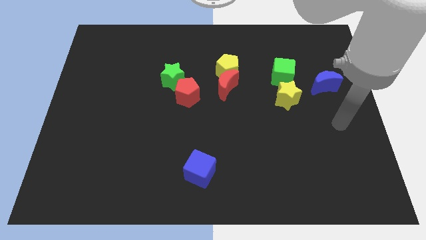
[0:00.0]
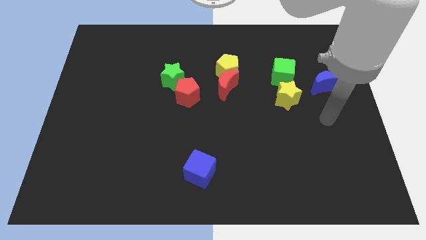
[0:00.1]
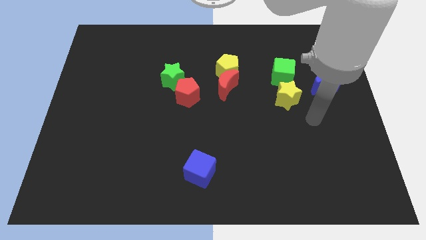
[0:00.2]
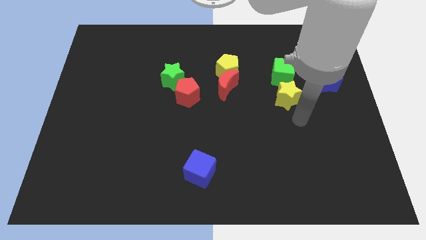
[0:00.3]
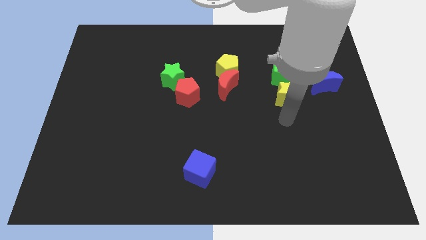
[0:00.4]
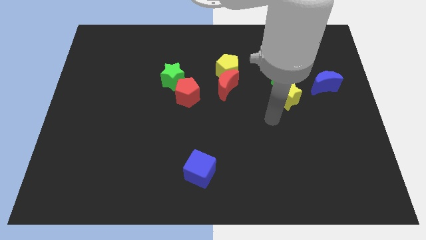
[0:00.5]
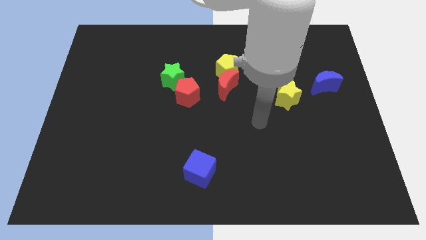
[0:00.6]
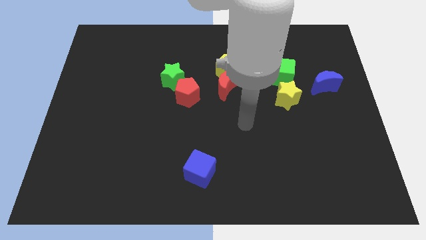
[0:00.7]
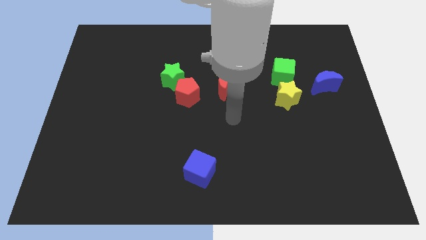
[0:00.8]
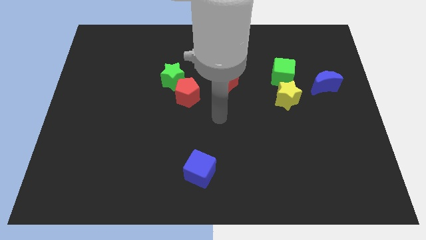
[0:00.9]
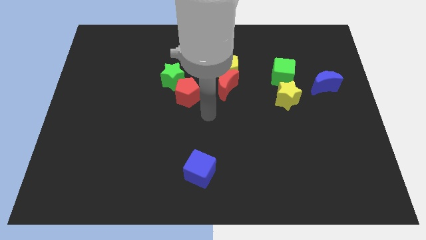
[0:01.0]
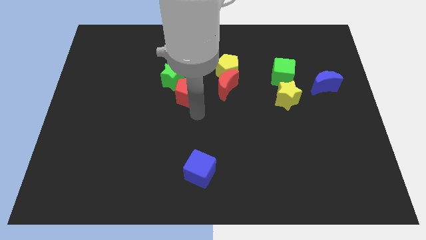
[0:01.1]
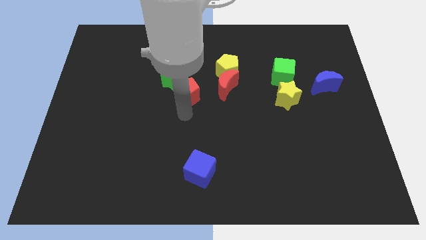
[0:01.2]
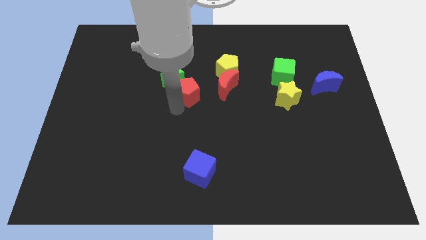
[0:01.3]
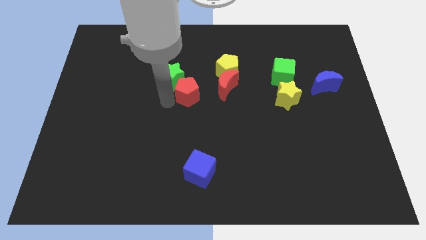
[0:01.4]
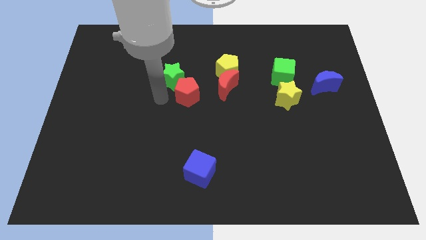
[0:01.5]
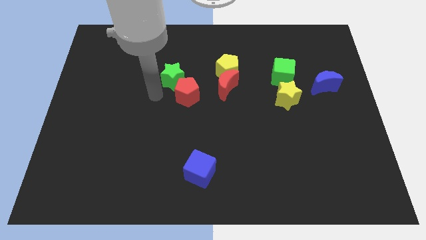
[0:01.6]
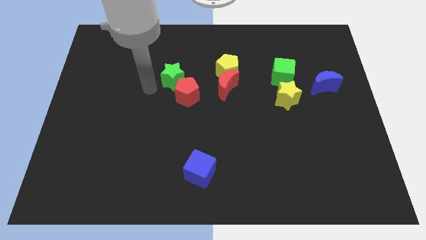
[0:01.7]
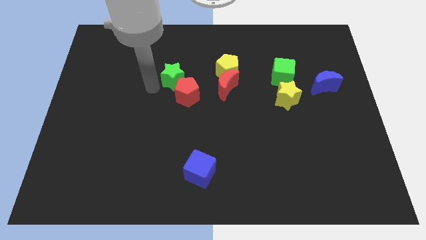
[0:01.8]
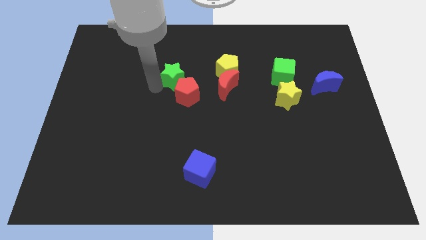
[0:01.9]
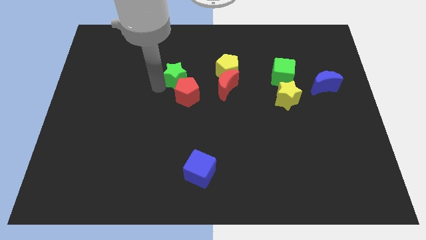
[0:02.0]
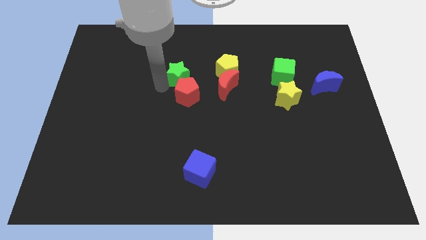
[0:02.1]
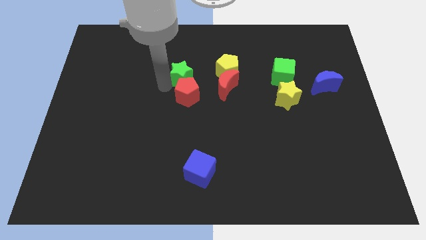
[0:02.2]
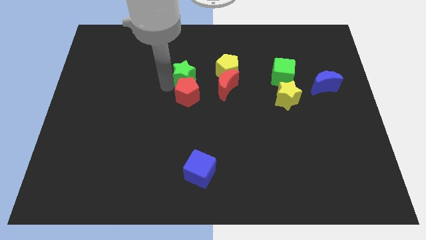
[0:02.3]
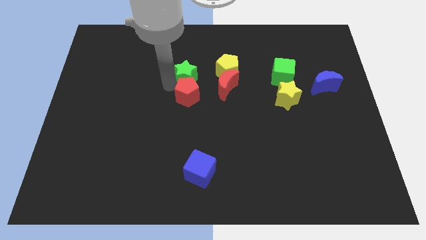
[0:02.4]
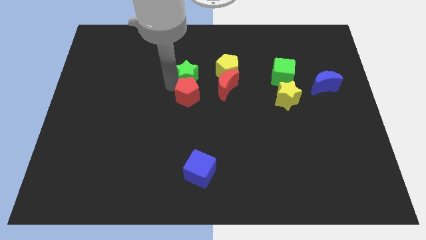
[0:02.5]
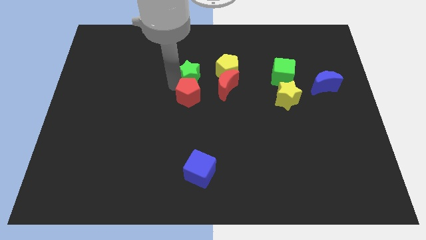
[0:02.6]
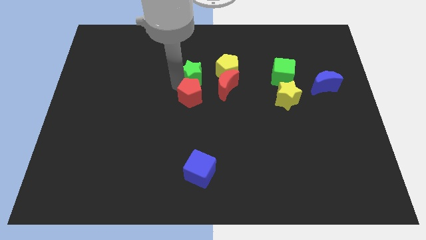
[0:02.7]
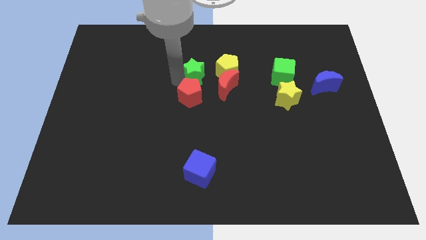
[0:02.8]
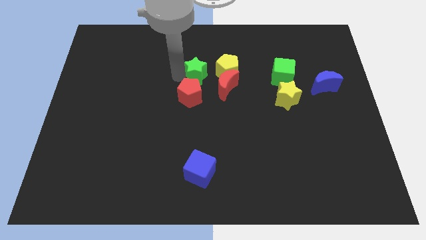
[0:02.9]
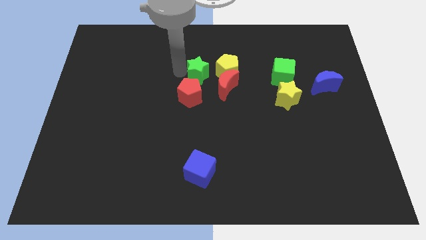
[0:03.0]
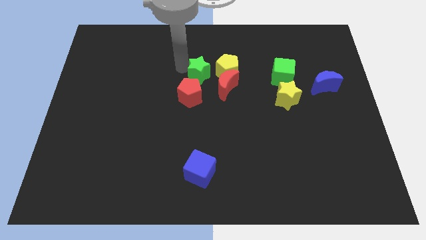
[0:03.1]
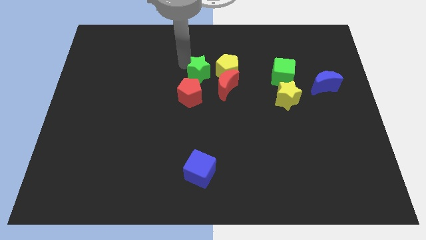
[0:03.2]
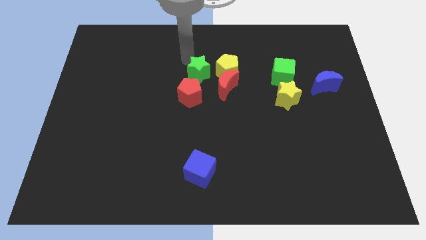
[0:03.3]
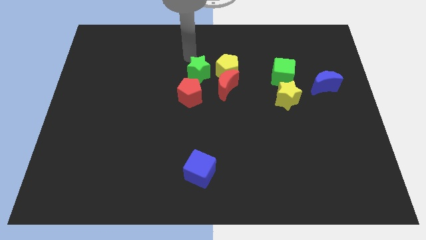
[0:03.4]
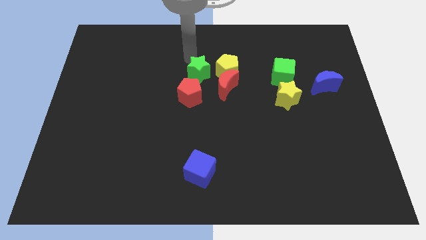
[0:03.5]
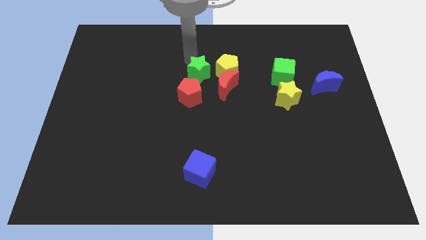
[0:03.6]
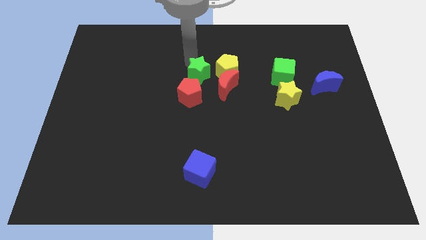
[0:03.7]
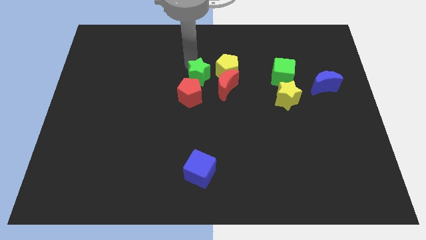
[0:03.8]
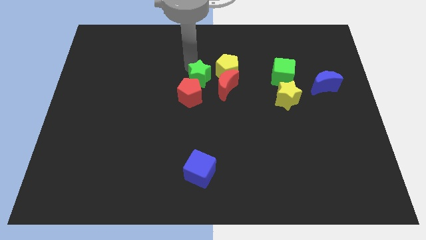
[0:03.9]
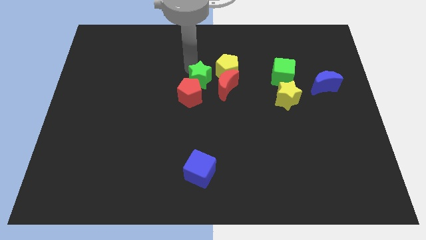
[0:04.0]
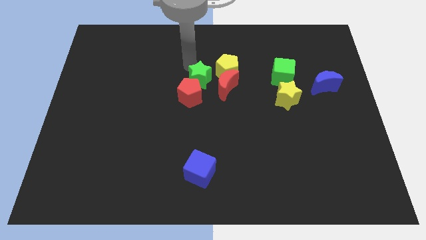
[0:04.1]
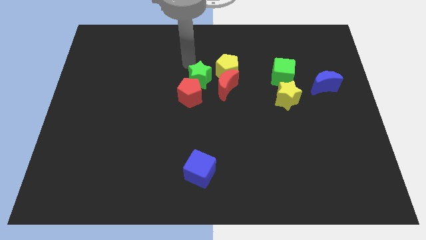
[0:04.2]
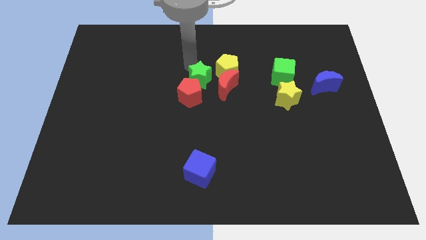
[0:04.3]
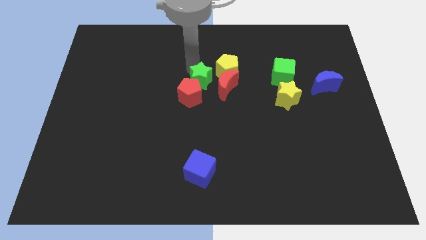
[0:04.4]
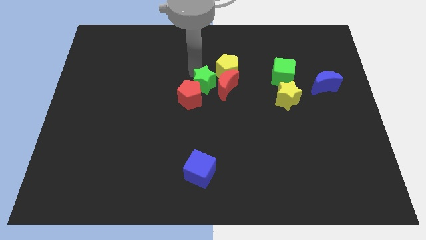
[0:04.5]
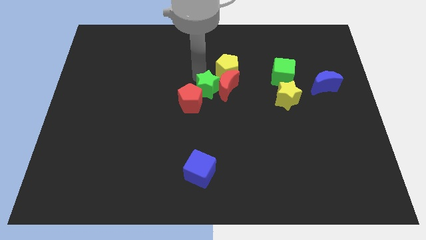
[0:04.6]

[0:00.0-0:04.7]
slide the green star down and right a little bit

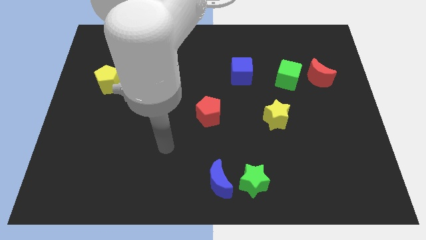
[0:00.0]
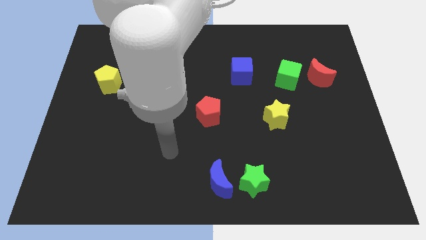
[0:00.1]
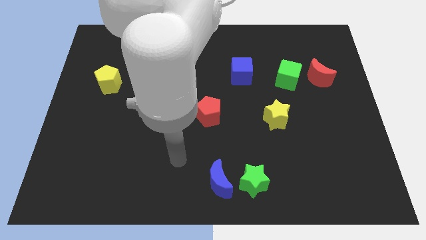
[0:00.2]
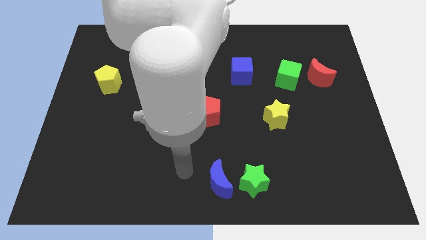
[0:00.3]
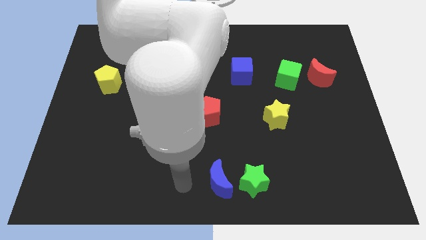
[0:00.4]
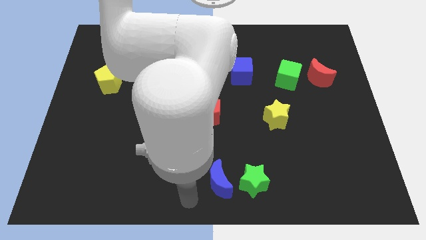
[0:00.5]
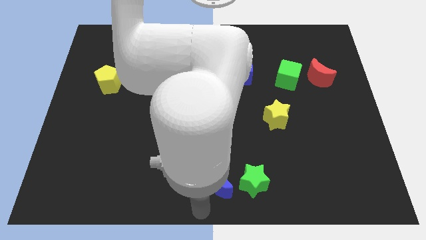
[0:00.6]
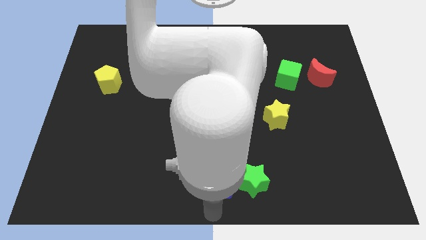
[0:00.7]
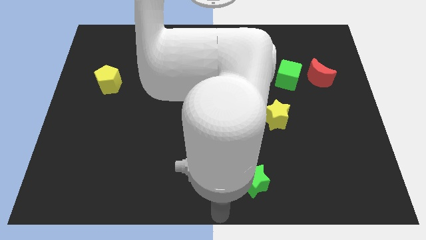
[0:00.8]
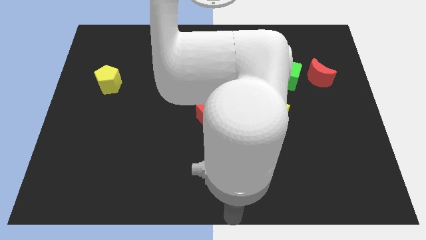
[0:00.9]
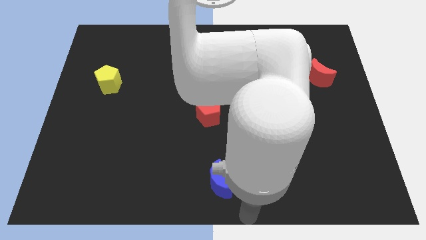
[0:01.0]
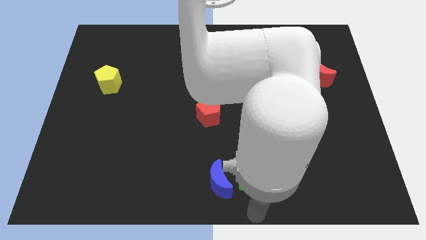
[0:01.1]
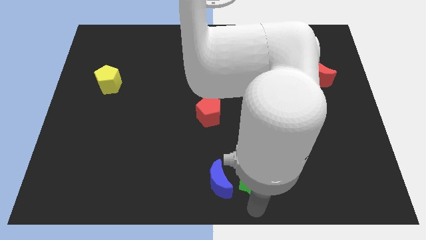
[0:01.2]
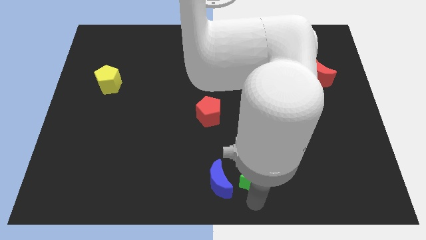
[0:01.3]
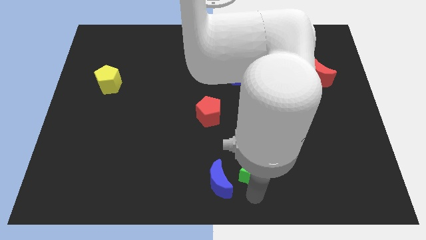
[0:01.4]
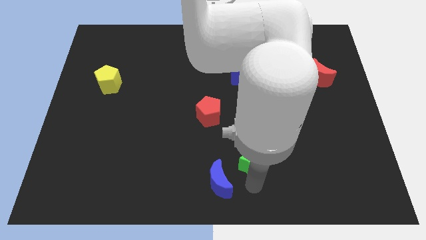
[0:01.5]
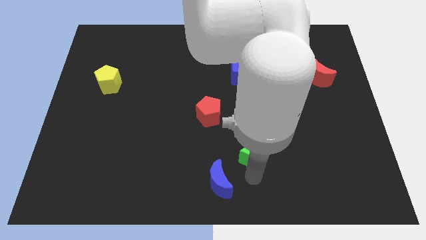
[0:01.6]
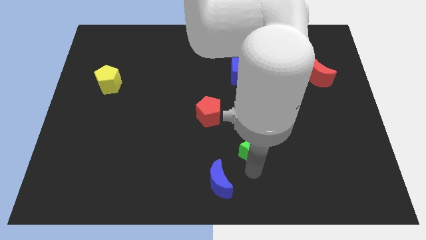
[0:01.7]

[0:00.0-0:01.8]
slide the green star upwards a little

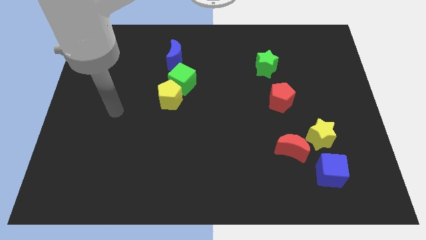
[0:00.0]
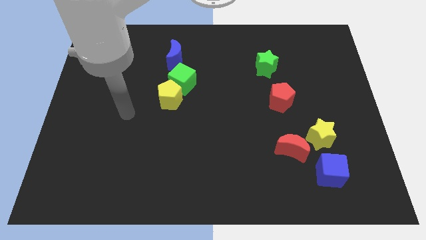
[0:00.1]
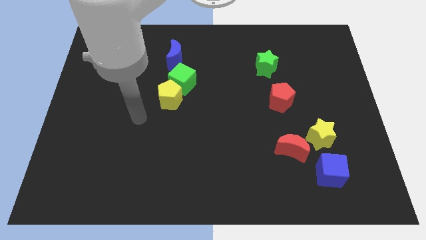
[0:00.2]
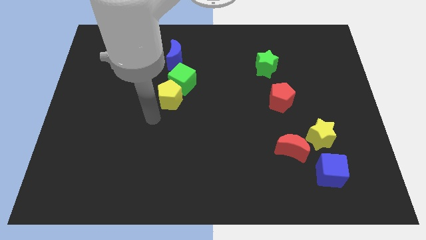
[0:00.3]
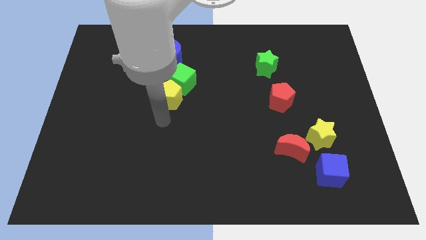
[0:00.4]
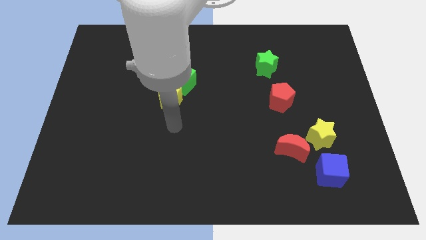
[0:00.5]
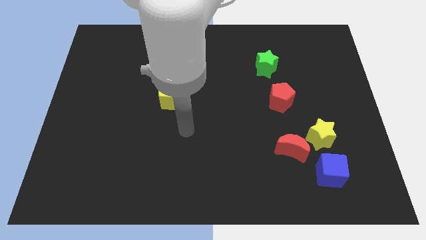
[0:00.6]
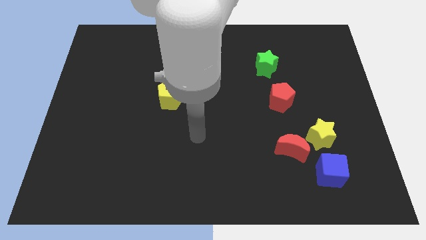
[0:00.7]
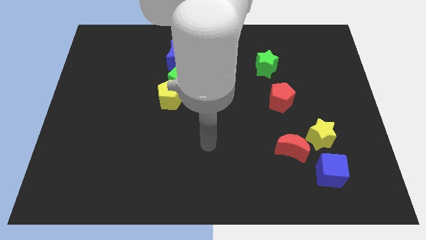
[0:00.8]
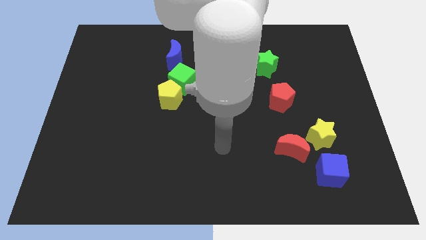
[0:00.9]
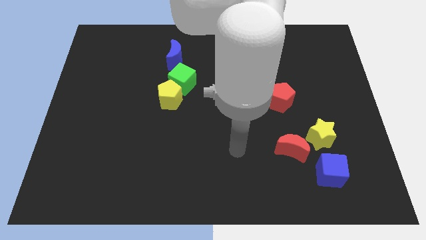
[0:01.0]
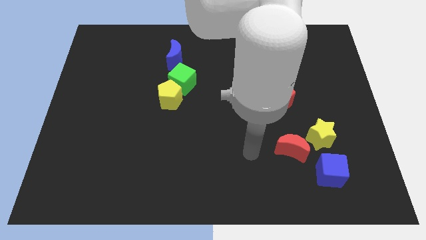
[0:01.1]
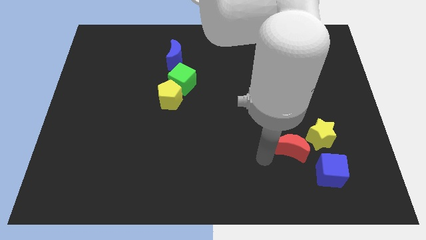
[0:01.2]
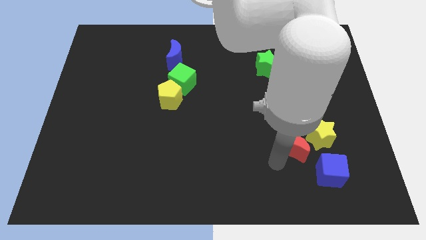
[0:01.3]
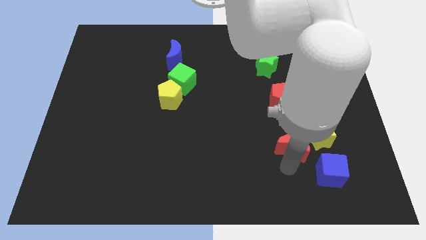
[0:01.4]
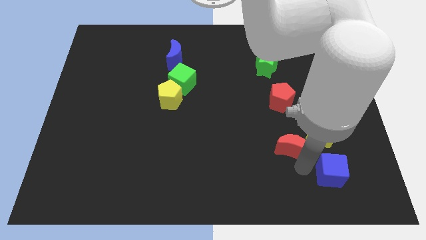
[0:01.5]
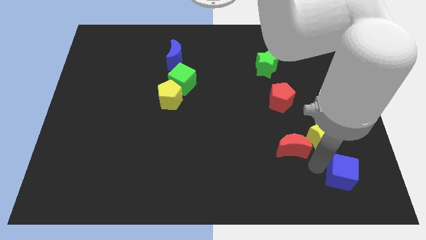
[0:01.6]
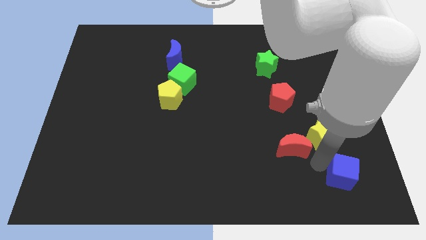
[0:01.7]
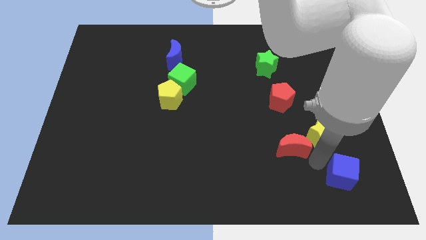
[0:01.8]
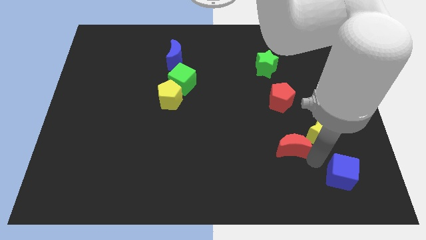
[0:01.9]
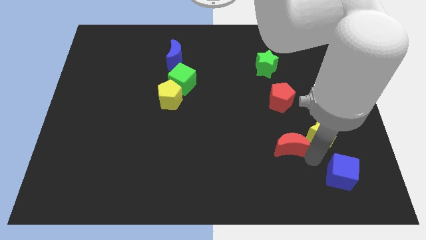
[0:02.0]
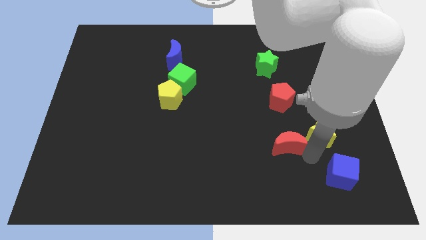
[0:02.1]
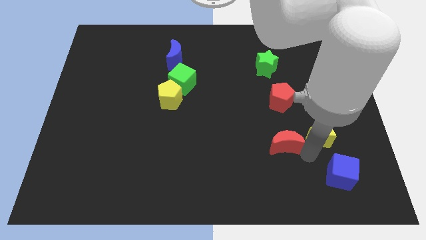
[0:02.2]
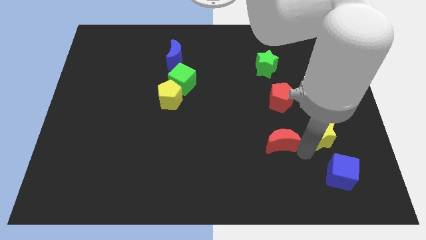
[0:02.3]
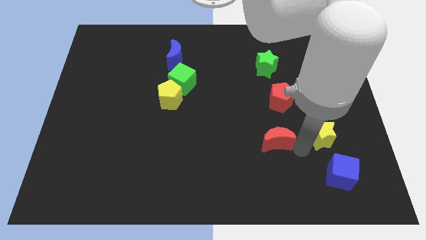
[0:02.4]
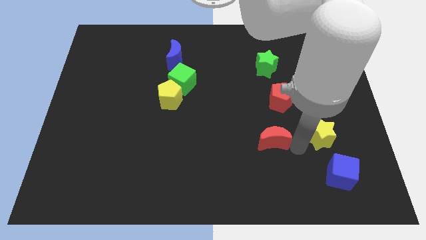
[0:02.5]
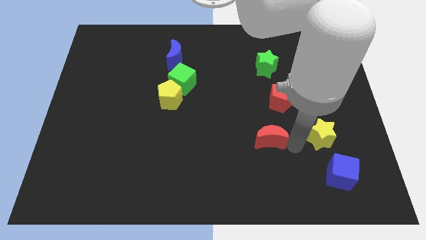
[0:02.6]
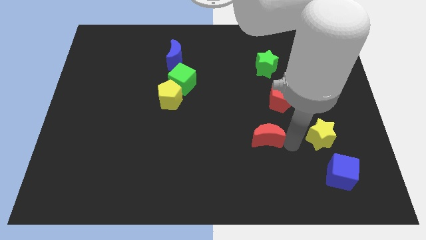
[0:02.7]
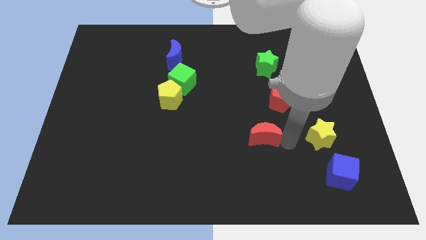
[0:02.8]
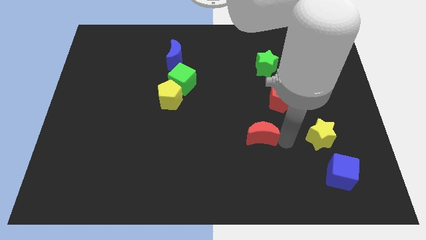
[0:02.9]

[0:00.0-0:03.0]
move the red moon up and then to the left a bit
